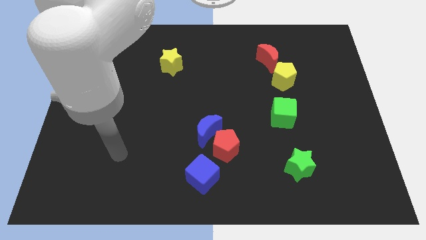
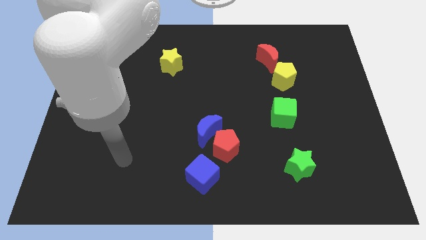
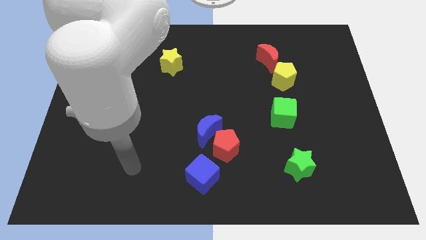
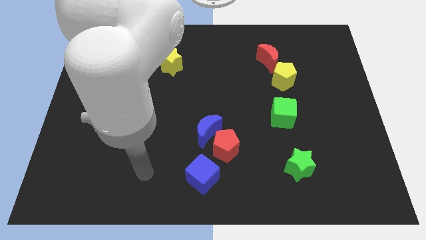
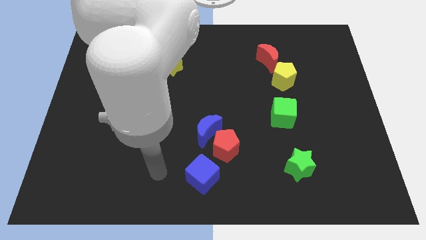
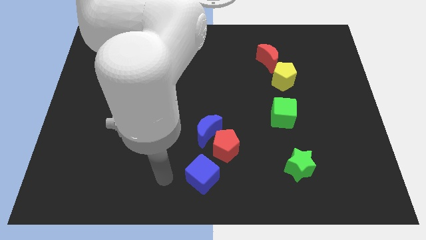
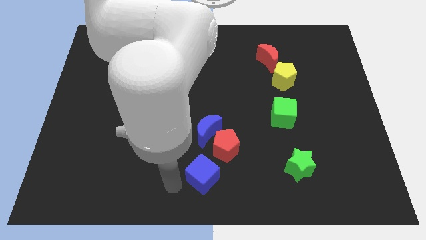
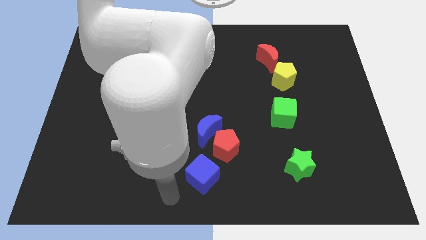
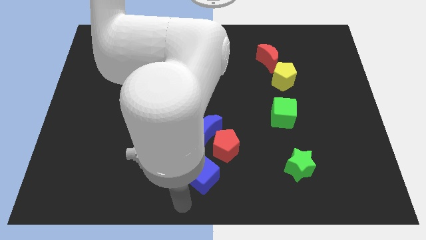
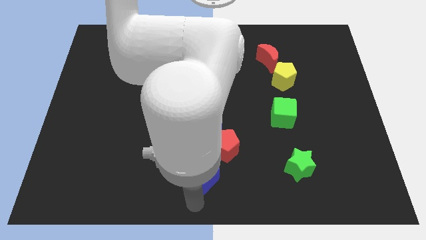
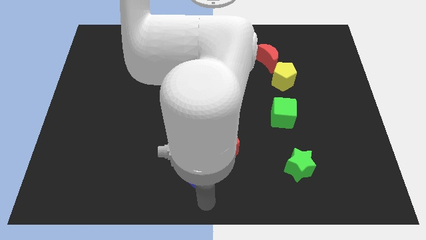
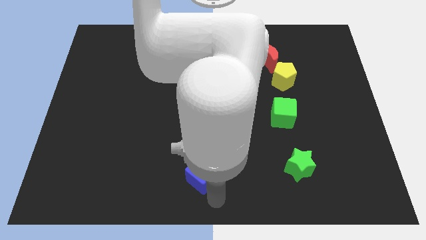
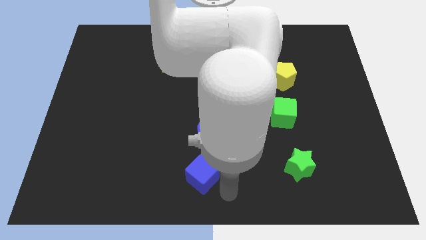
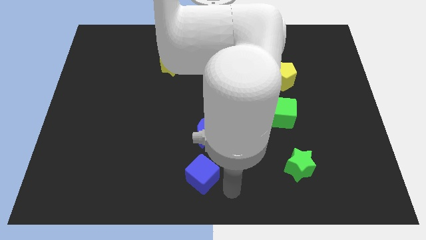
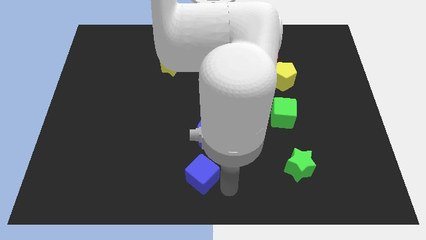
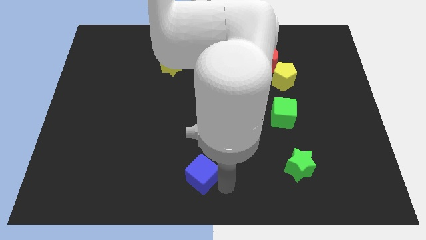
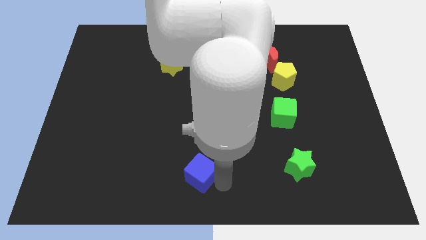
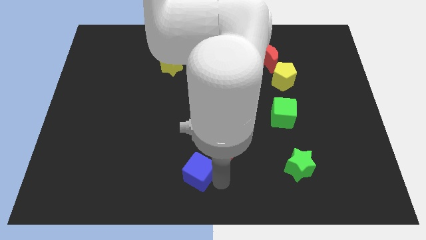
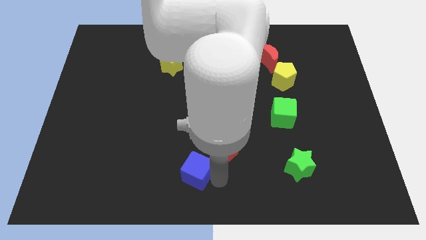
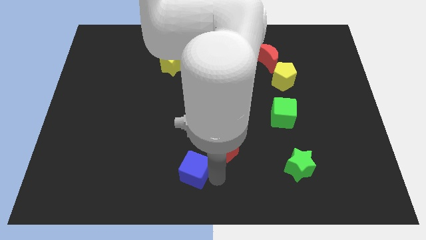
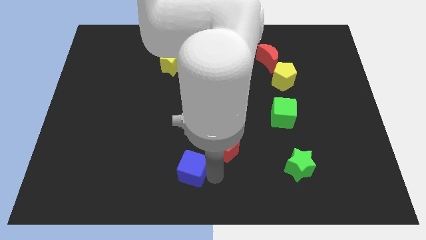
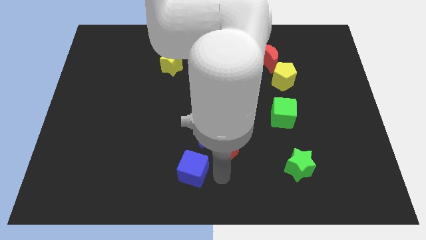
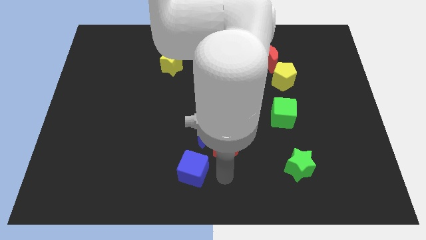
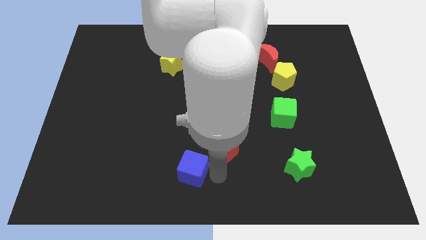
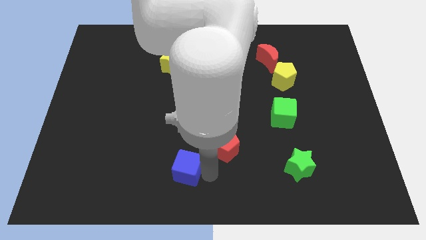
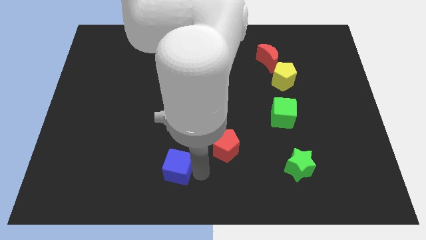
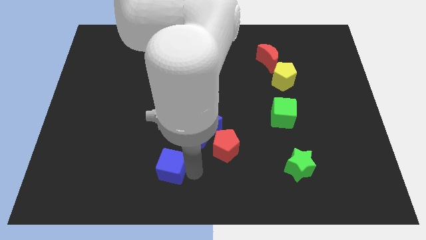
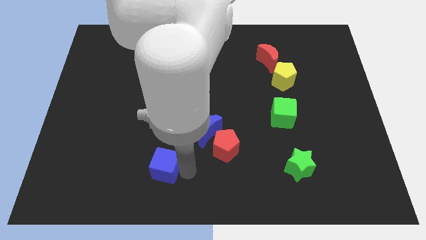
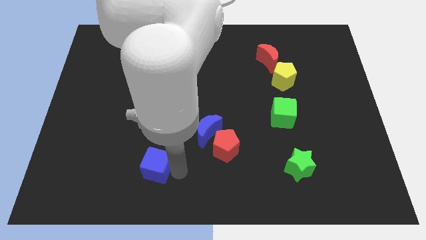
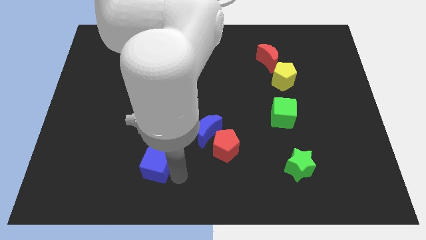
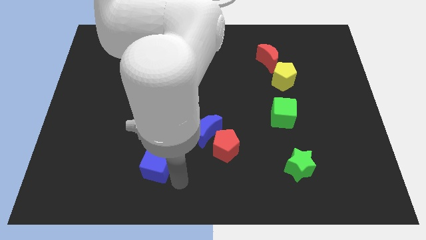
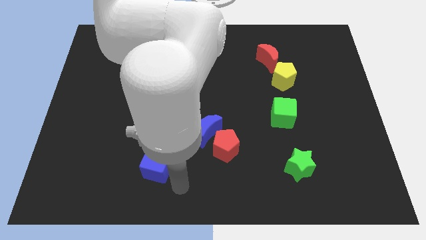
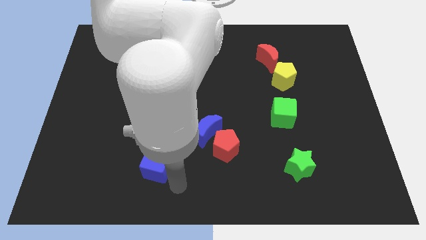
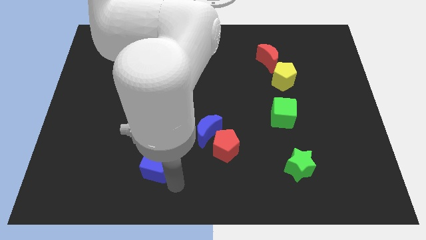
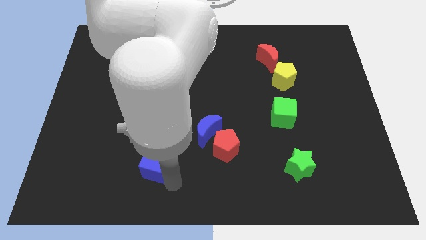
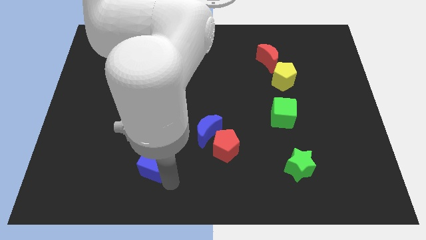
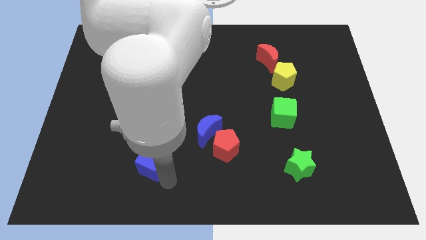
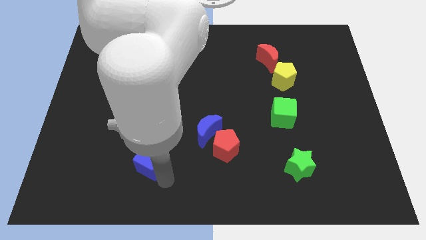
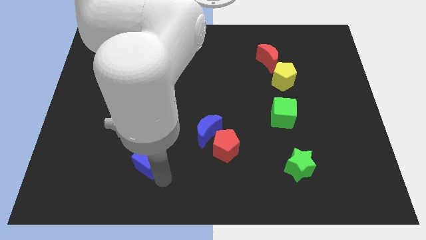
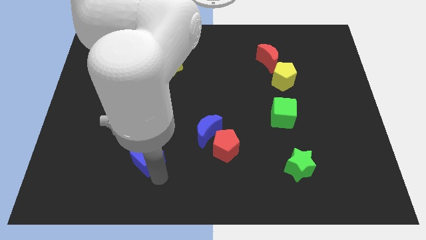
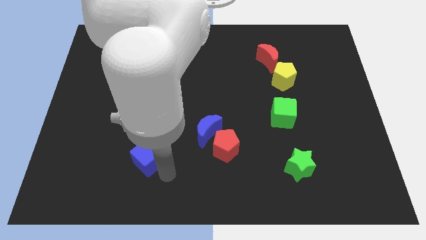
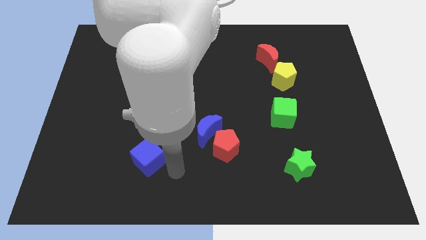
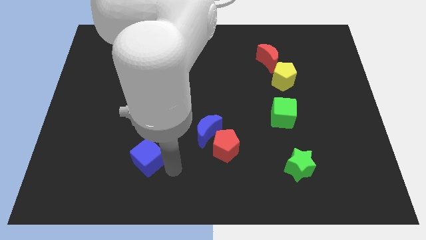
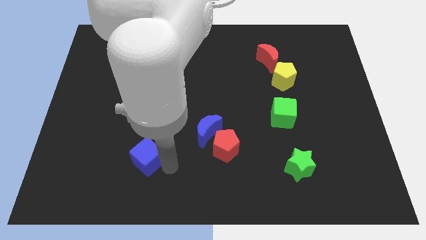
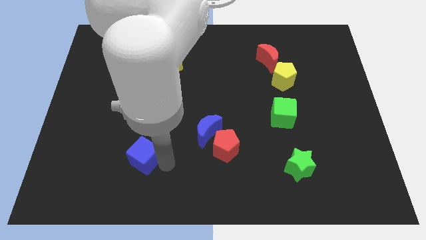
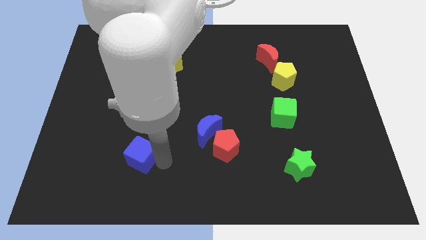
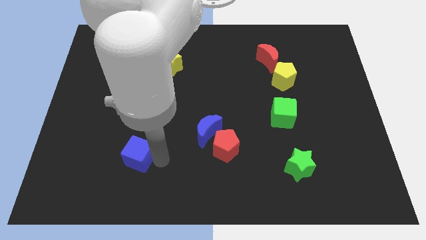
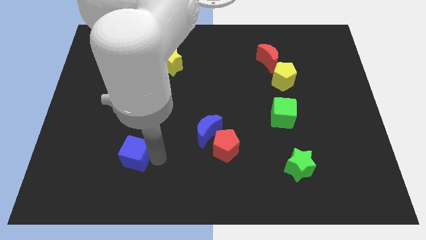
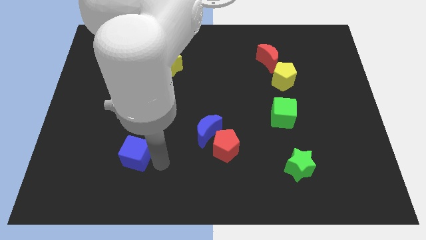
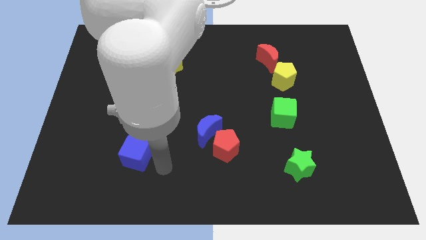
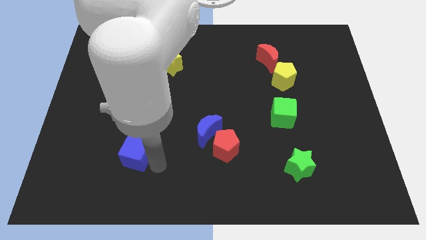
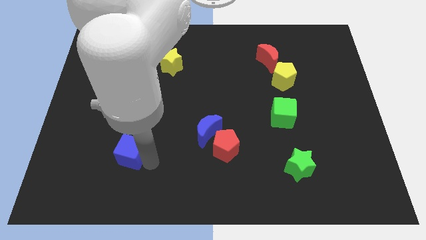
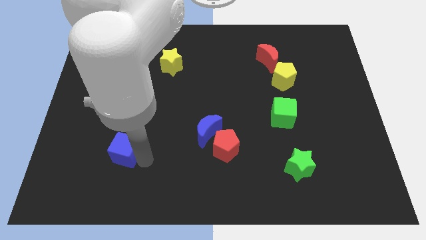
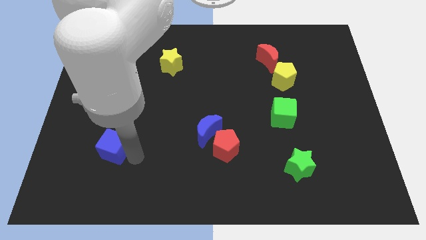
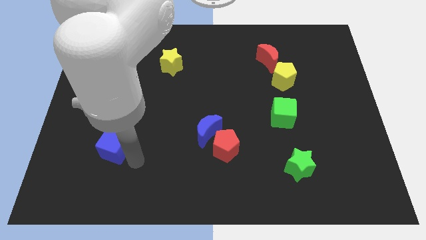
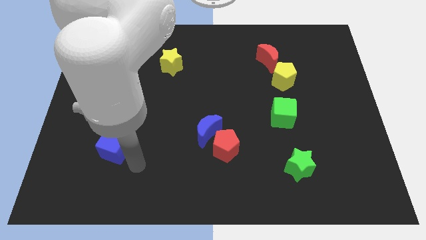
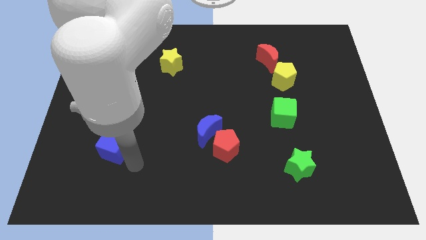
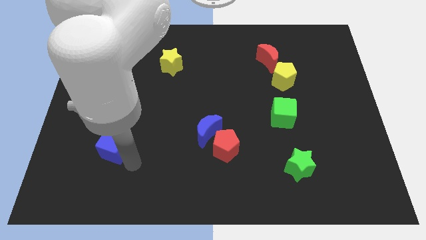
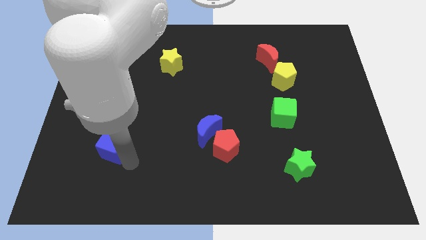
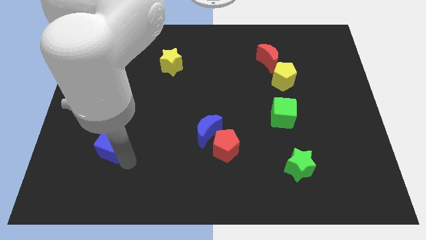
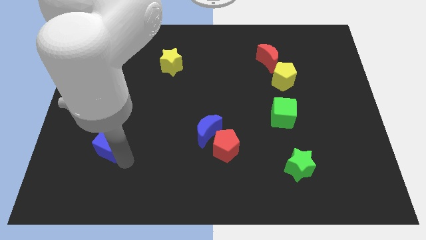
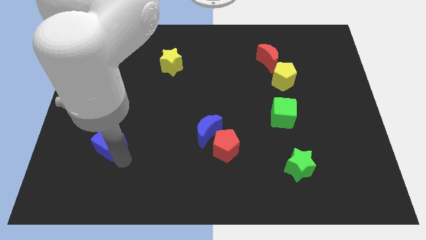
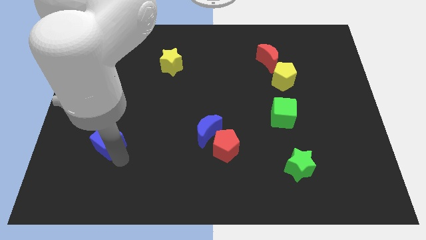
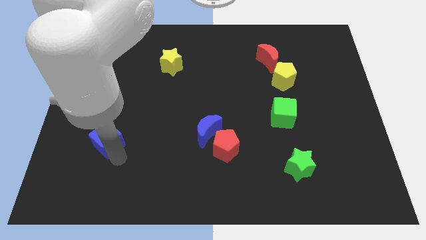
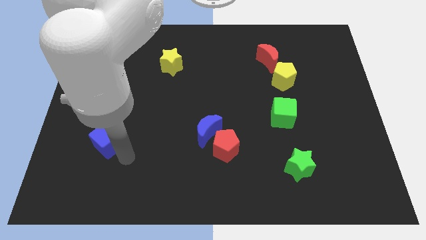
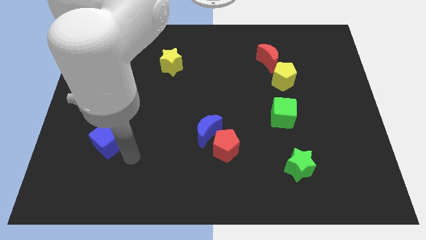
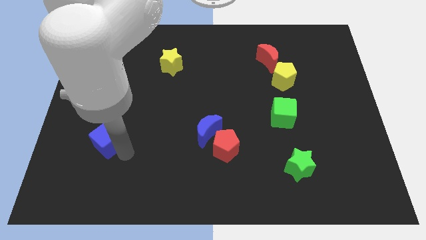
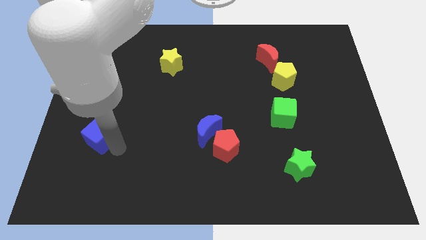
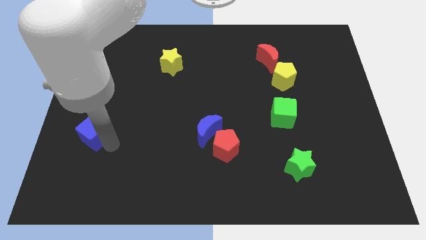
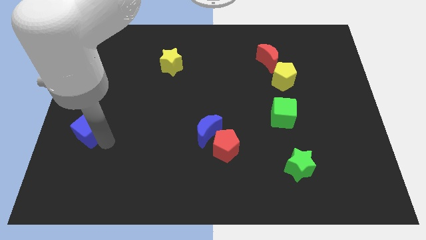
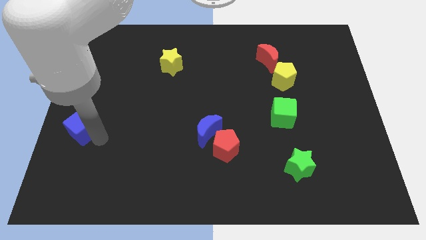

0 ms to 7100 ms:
move the blue cube to the center left

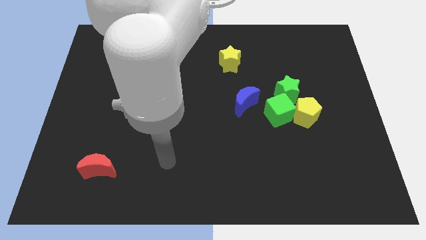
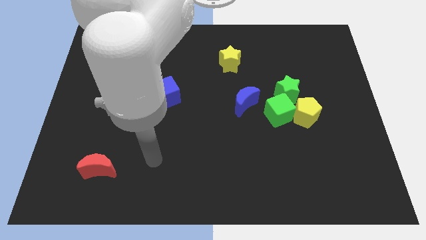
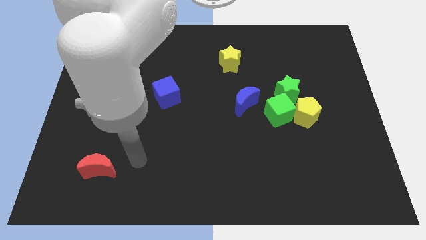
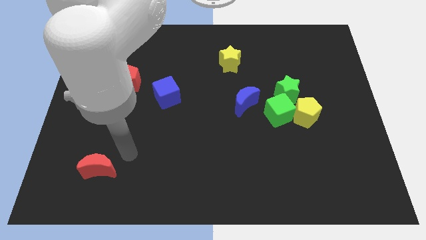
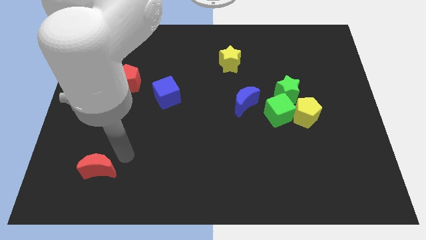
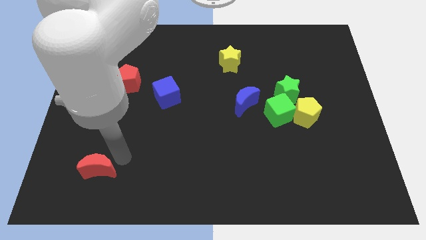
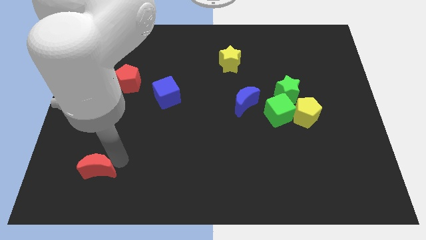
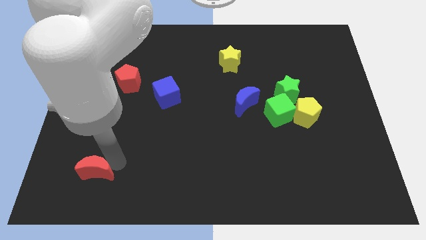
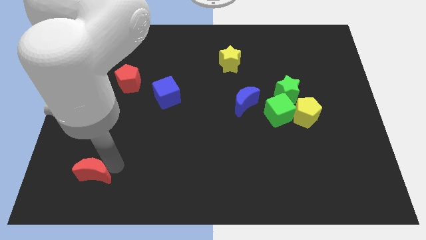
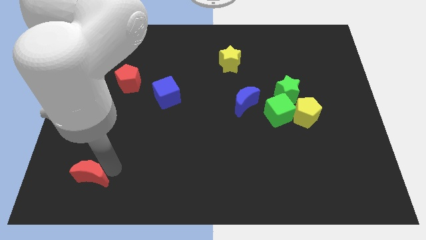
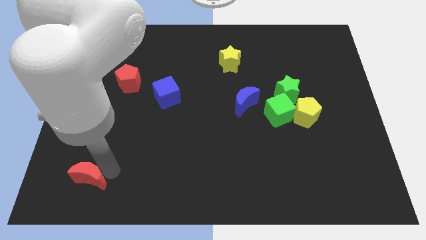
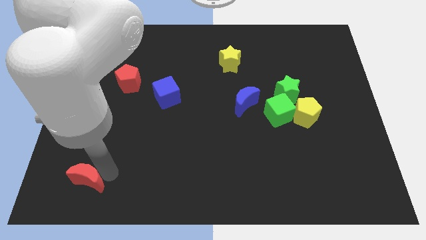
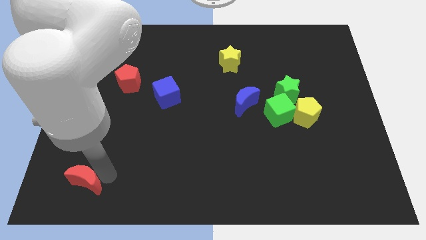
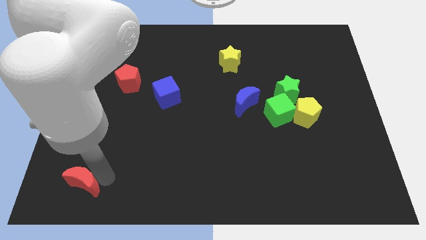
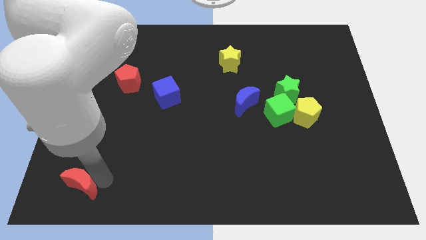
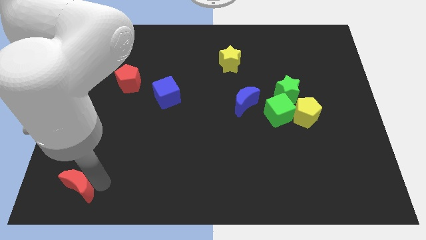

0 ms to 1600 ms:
slide the red moon to the bottom left
